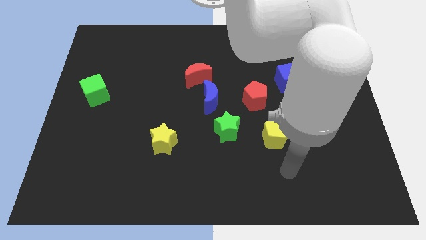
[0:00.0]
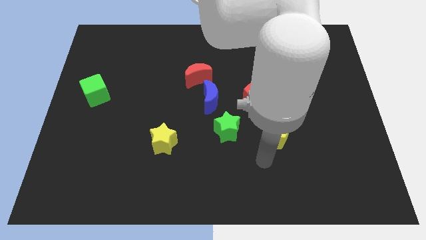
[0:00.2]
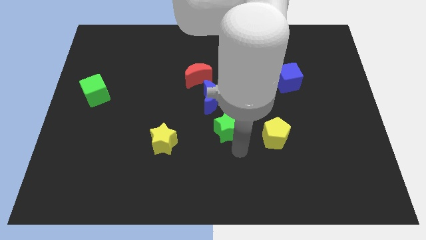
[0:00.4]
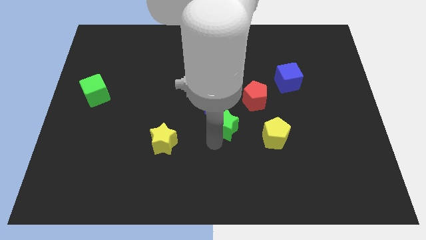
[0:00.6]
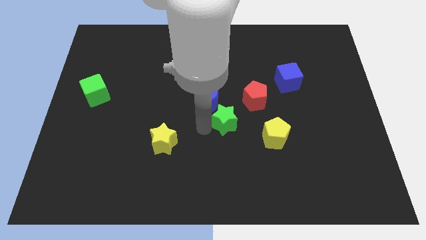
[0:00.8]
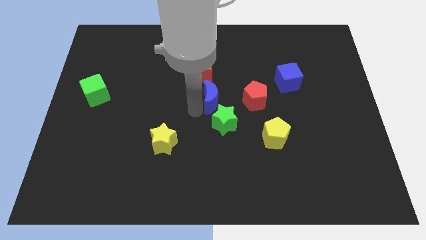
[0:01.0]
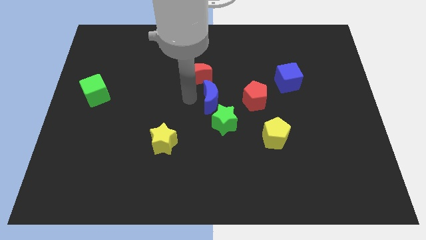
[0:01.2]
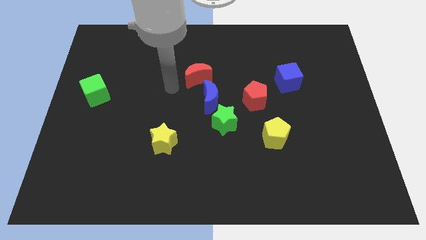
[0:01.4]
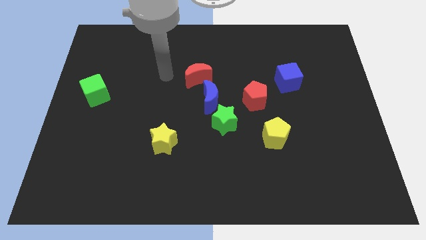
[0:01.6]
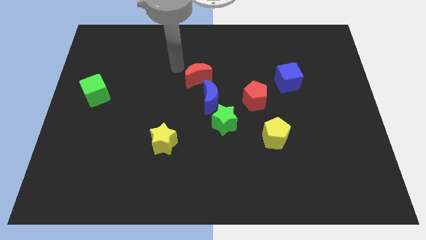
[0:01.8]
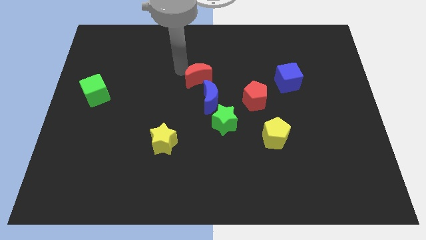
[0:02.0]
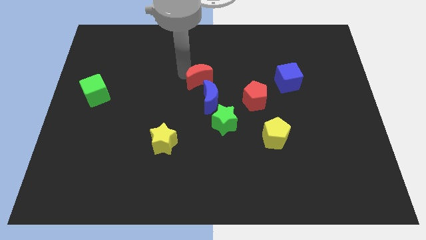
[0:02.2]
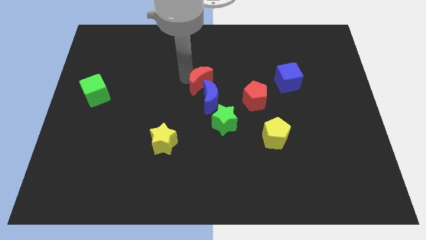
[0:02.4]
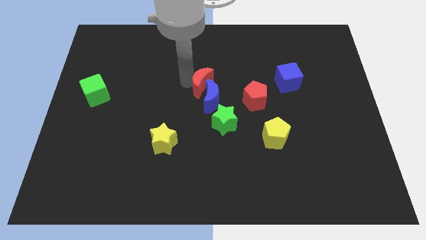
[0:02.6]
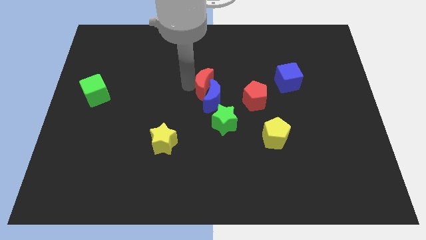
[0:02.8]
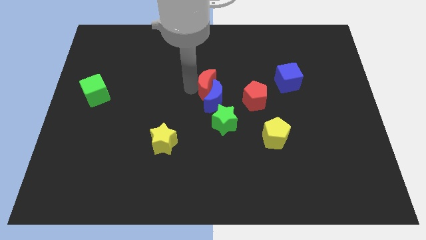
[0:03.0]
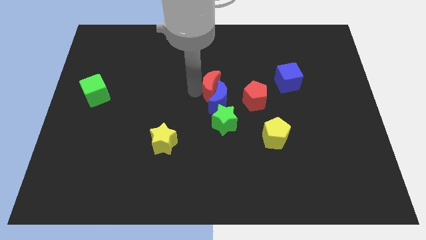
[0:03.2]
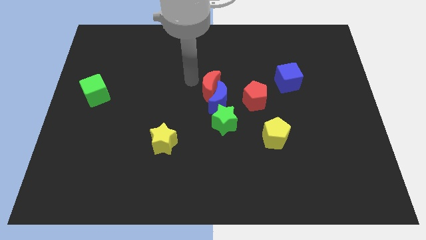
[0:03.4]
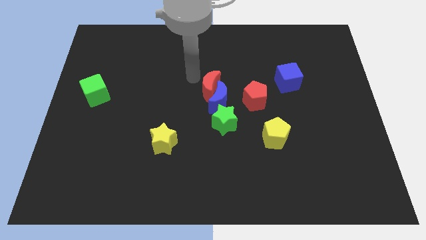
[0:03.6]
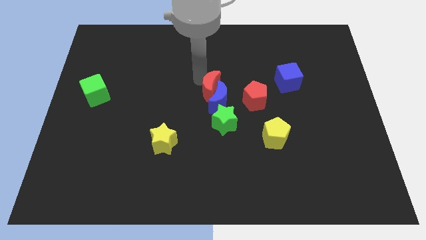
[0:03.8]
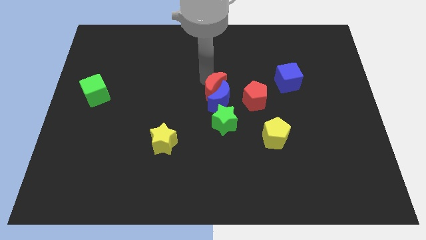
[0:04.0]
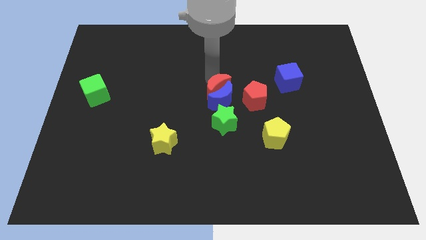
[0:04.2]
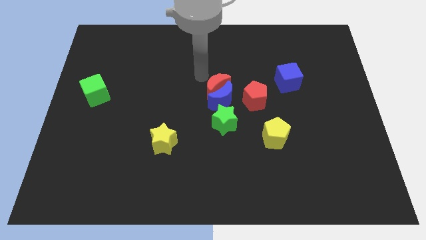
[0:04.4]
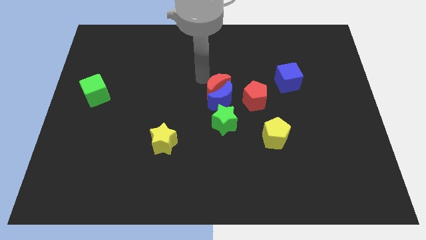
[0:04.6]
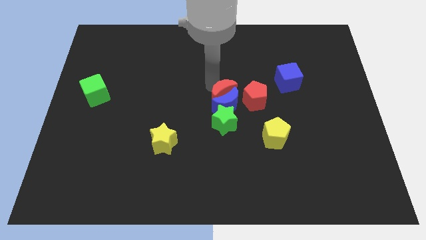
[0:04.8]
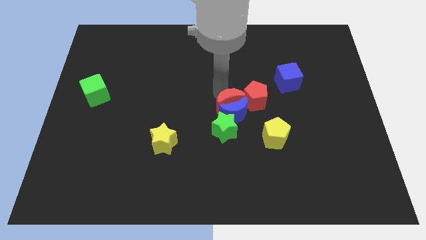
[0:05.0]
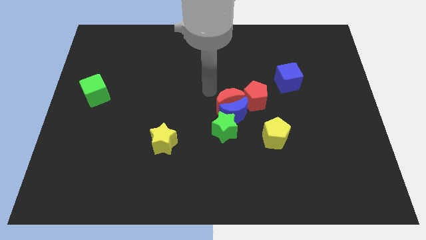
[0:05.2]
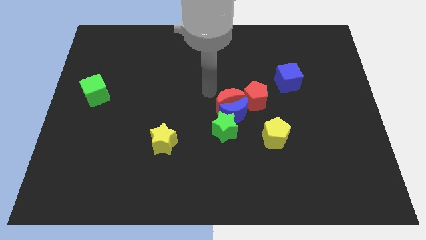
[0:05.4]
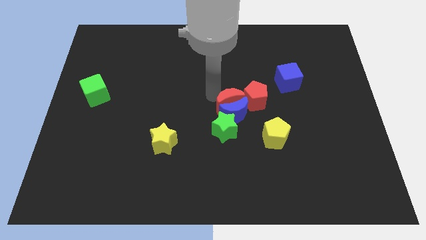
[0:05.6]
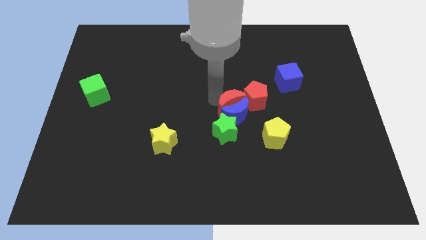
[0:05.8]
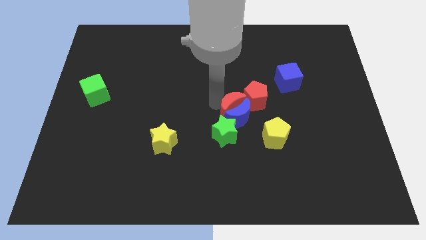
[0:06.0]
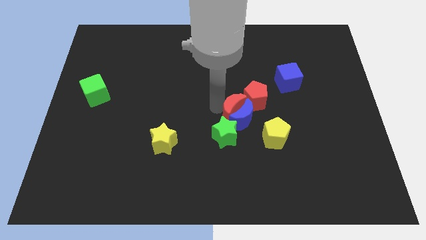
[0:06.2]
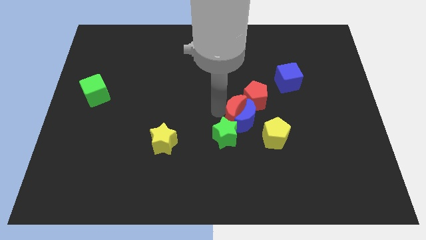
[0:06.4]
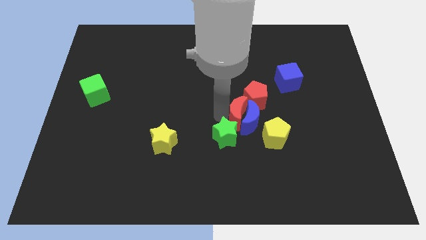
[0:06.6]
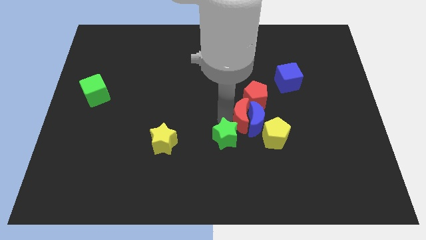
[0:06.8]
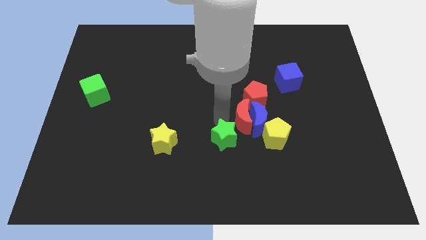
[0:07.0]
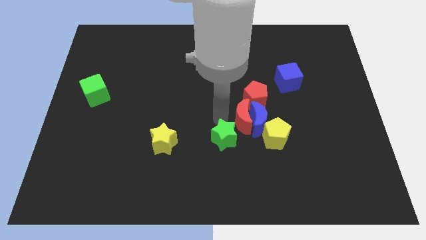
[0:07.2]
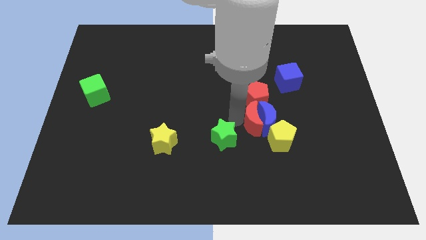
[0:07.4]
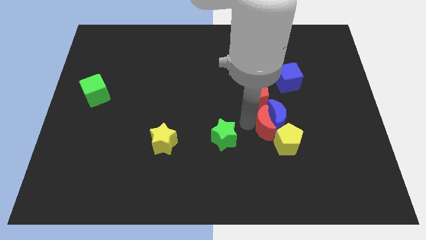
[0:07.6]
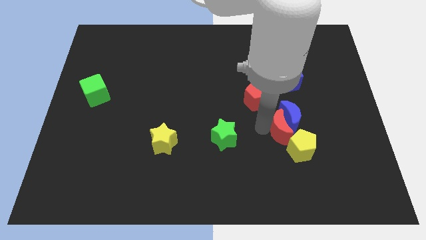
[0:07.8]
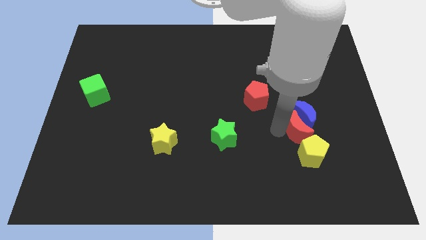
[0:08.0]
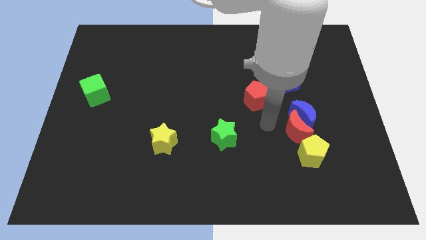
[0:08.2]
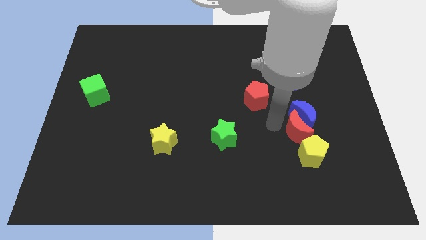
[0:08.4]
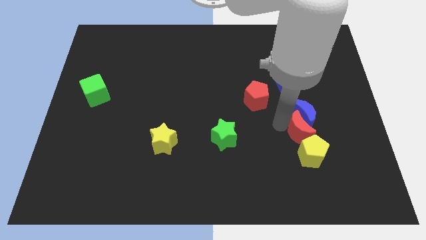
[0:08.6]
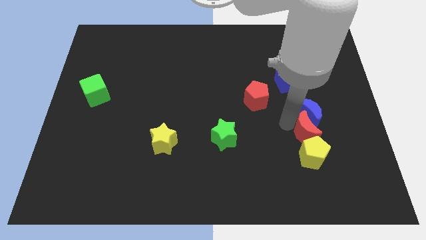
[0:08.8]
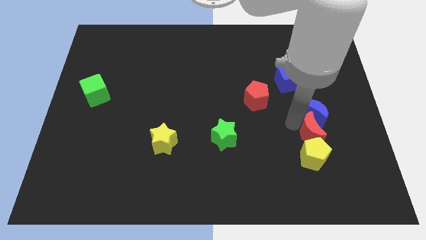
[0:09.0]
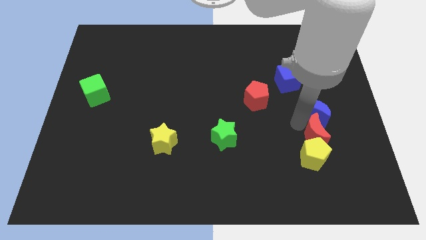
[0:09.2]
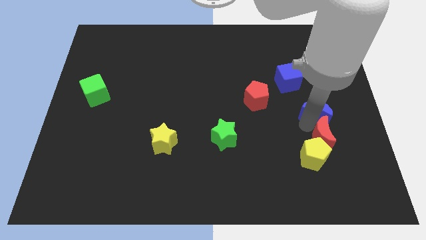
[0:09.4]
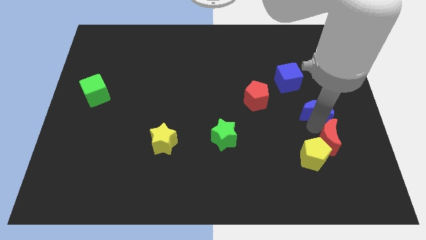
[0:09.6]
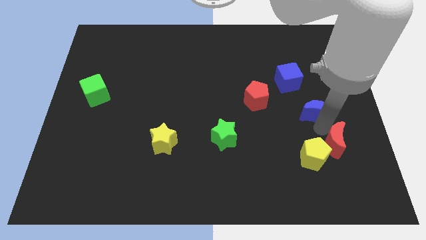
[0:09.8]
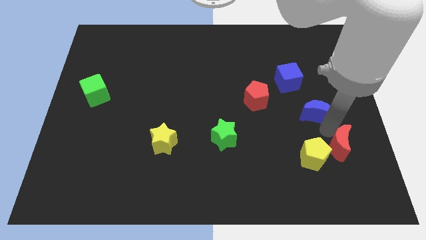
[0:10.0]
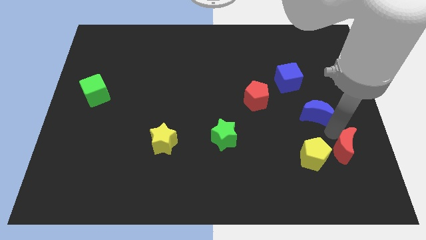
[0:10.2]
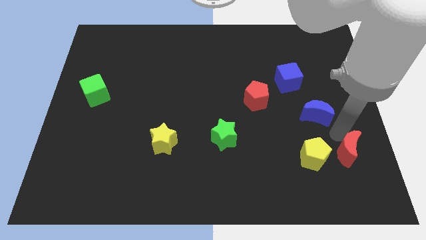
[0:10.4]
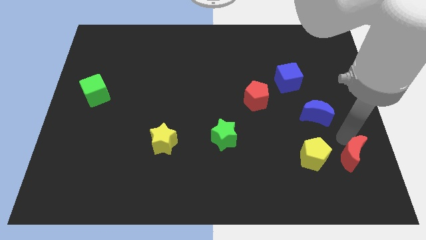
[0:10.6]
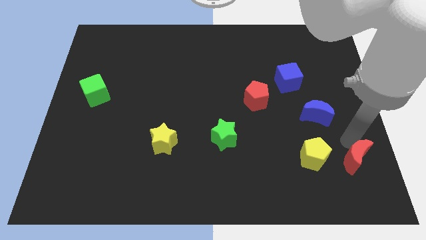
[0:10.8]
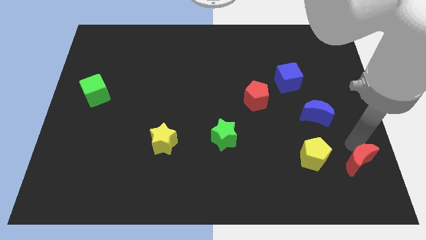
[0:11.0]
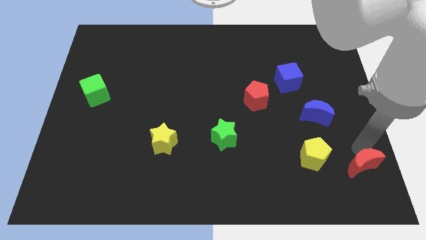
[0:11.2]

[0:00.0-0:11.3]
push the red moon to the bottom right
